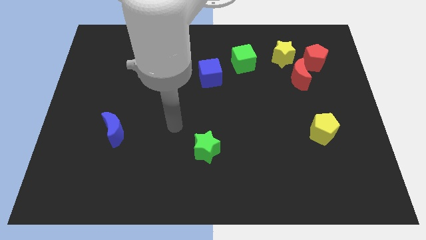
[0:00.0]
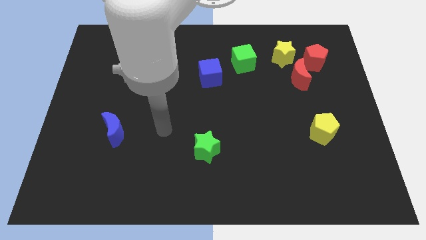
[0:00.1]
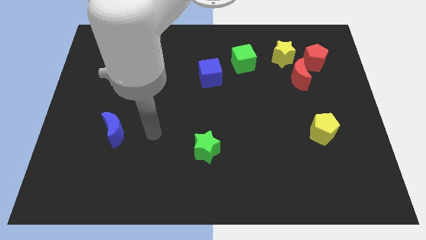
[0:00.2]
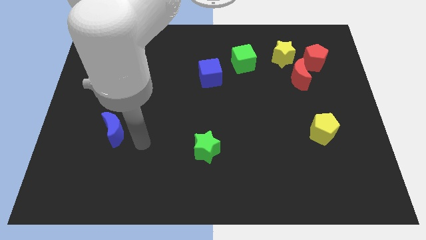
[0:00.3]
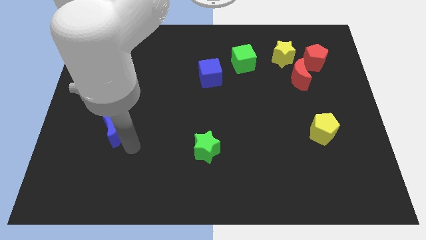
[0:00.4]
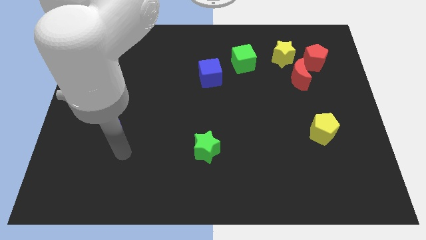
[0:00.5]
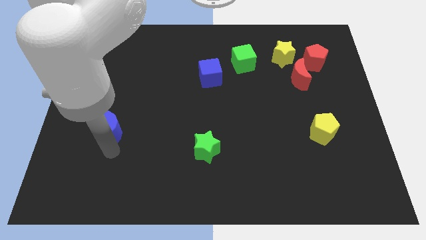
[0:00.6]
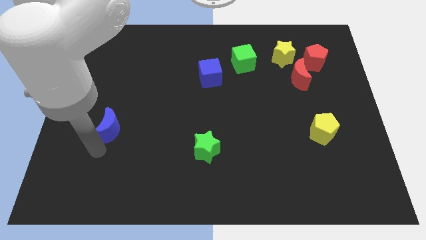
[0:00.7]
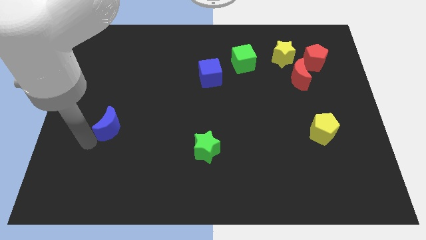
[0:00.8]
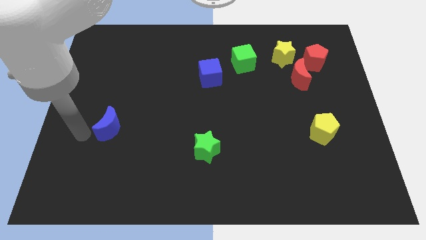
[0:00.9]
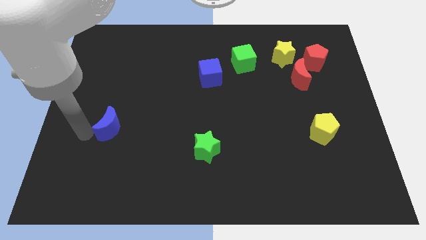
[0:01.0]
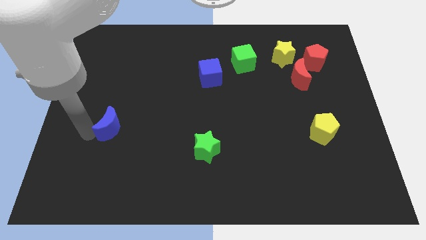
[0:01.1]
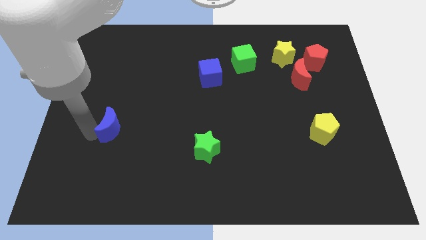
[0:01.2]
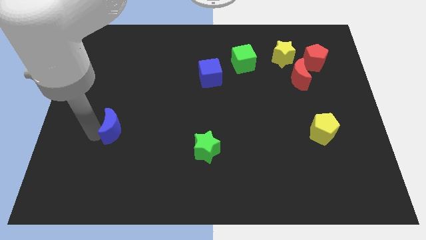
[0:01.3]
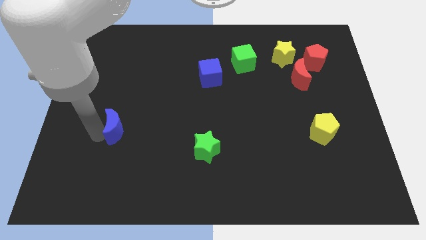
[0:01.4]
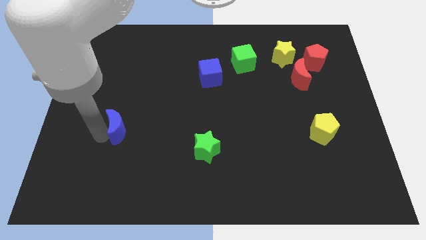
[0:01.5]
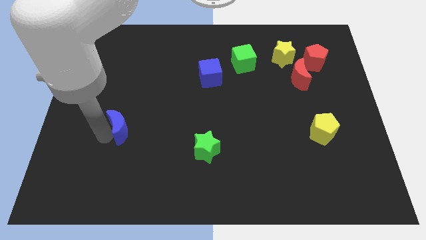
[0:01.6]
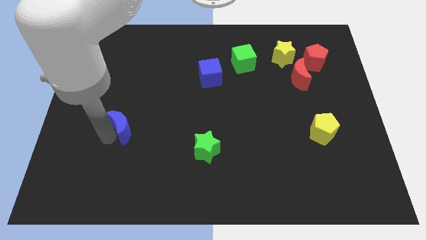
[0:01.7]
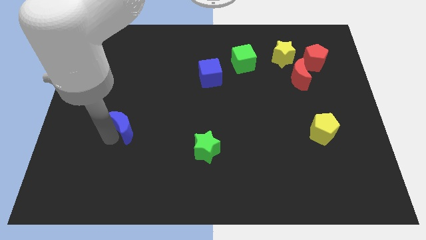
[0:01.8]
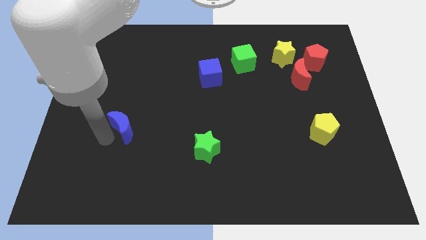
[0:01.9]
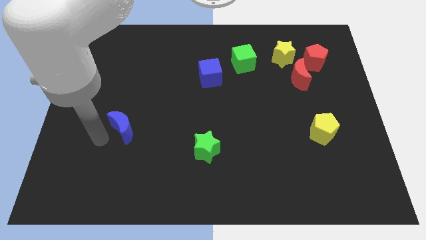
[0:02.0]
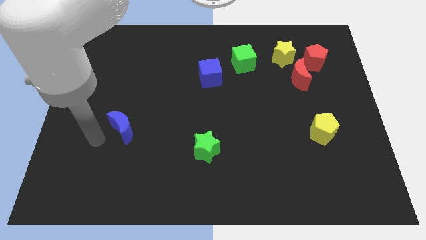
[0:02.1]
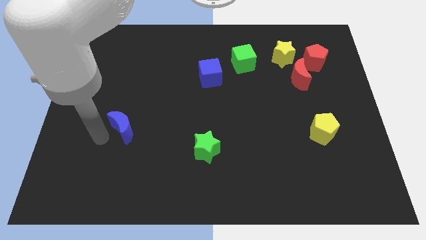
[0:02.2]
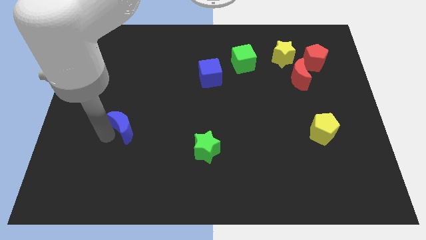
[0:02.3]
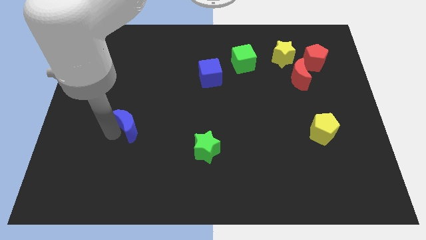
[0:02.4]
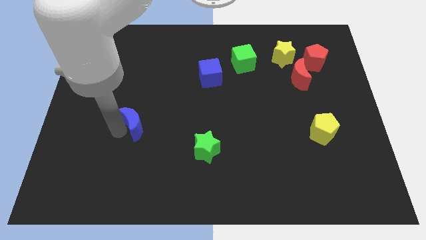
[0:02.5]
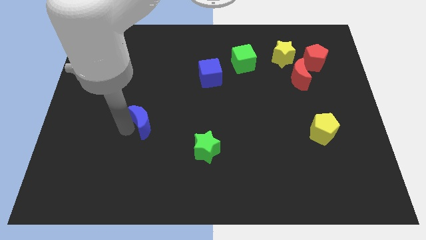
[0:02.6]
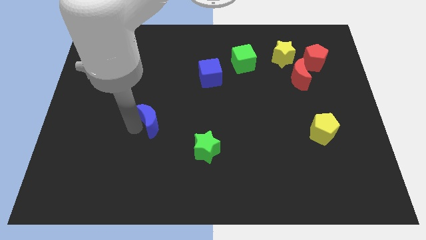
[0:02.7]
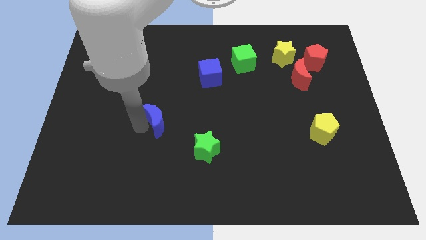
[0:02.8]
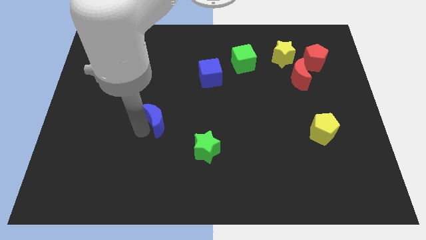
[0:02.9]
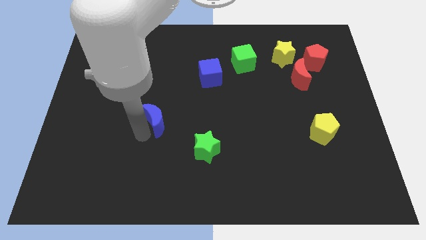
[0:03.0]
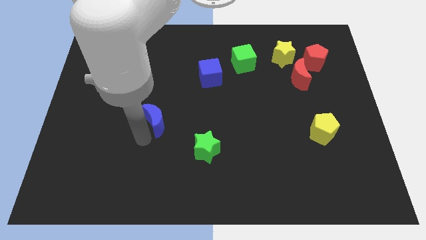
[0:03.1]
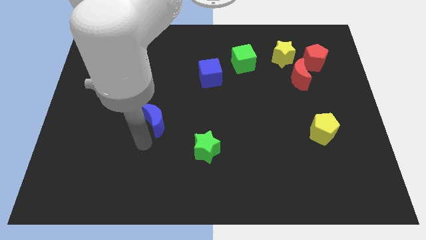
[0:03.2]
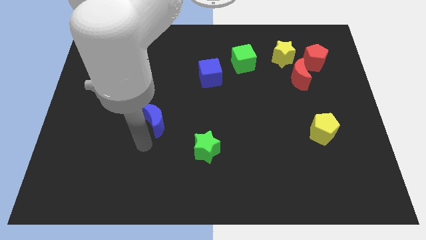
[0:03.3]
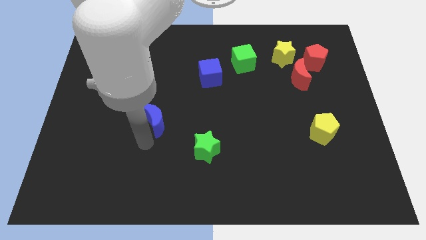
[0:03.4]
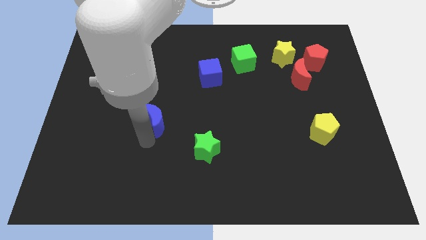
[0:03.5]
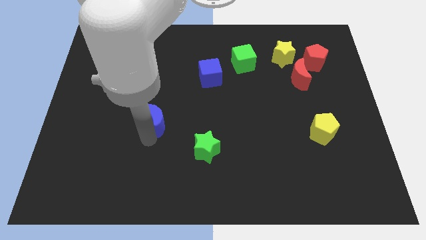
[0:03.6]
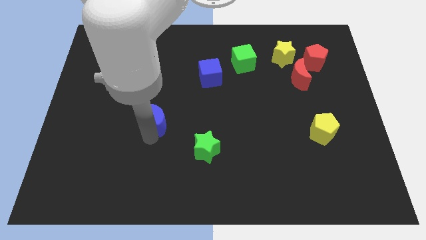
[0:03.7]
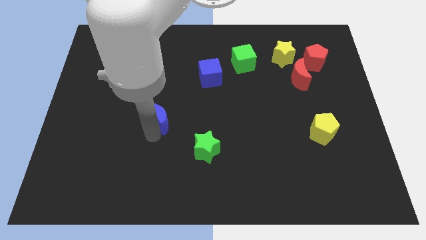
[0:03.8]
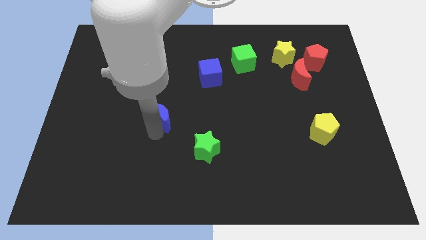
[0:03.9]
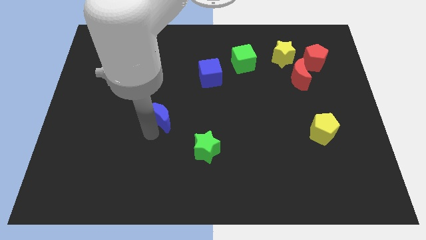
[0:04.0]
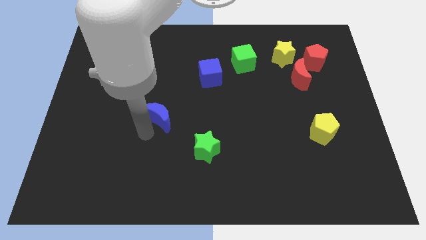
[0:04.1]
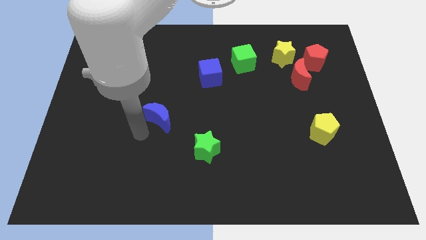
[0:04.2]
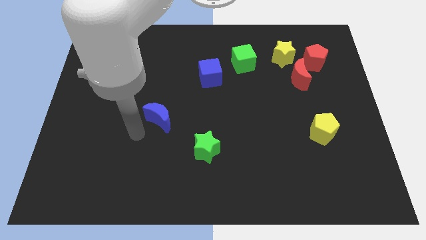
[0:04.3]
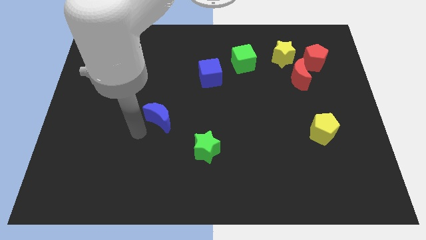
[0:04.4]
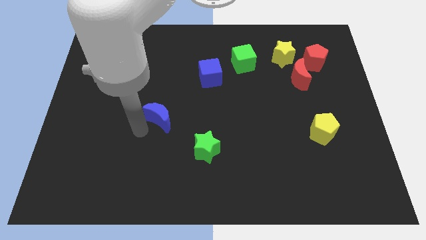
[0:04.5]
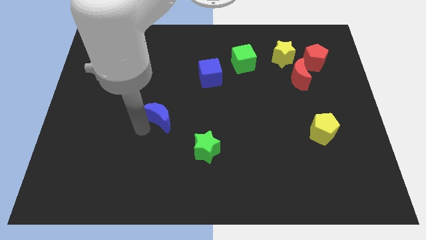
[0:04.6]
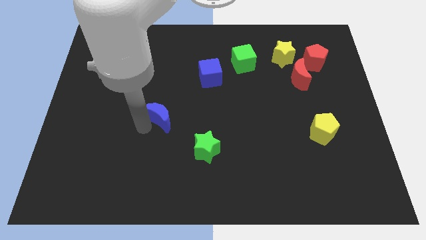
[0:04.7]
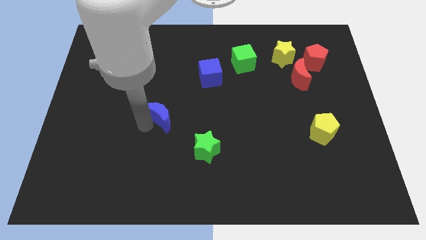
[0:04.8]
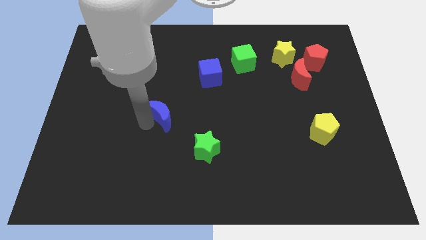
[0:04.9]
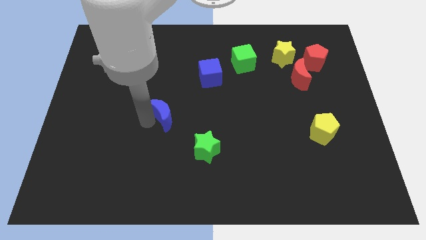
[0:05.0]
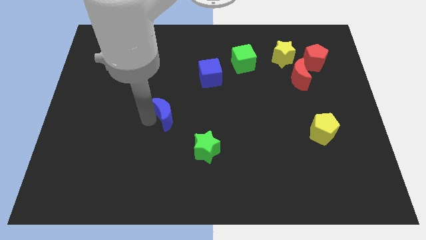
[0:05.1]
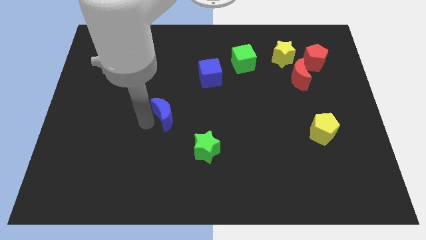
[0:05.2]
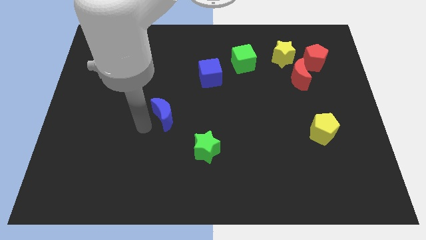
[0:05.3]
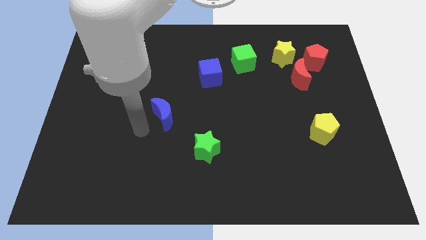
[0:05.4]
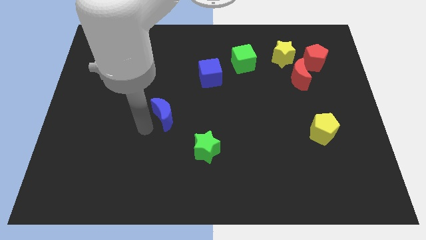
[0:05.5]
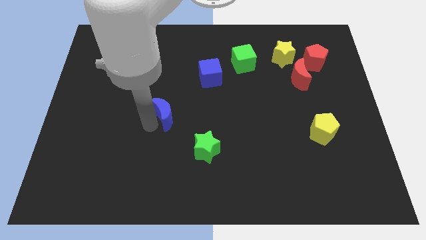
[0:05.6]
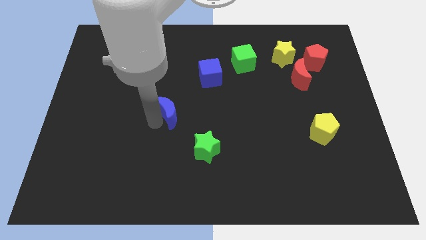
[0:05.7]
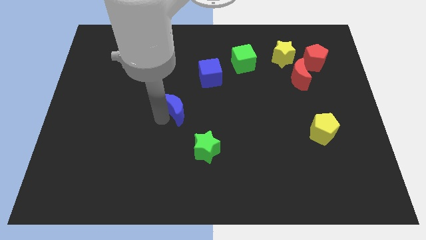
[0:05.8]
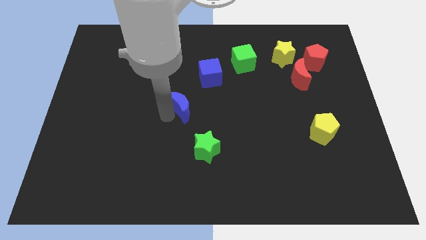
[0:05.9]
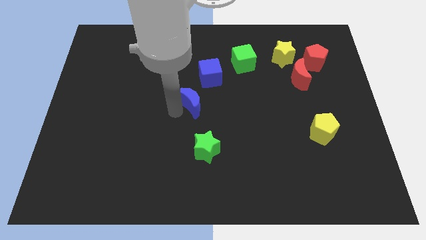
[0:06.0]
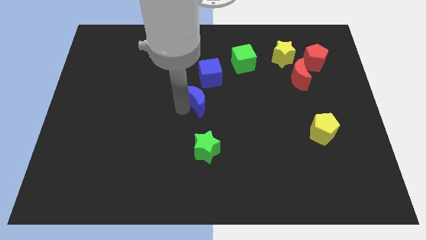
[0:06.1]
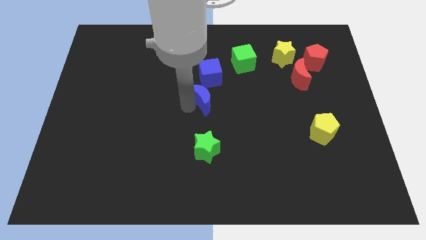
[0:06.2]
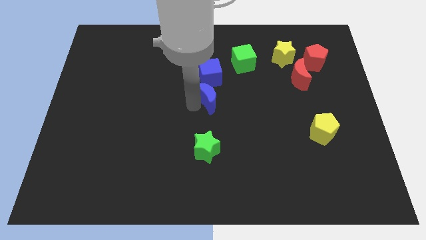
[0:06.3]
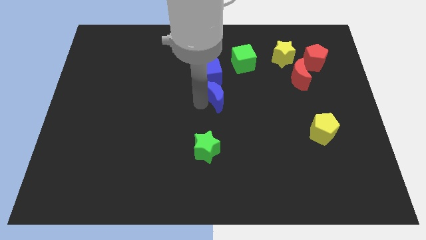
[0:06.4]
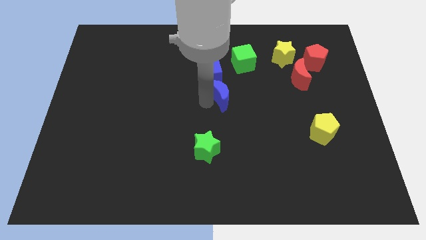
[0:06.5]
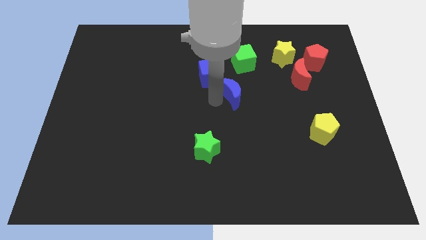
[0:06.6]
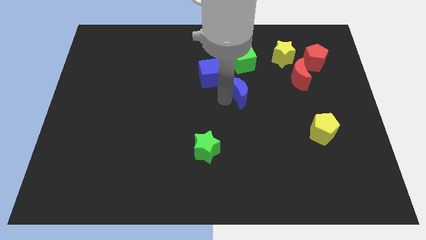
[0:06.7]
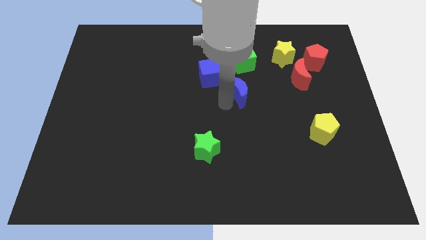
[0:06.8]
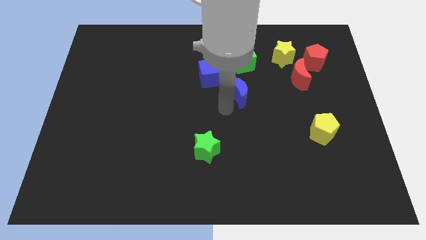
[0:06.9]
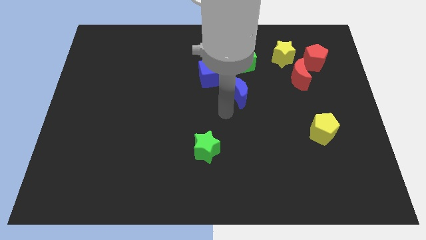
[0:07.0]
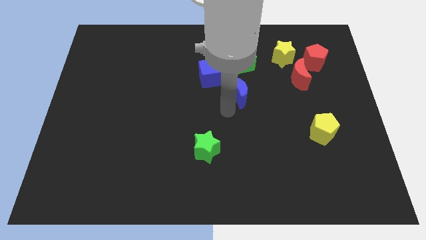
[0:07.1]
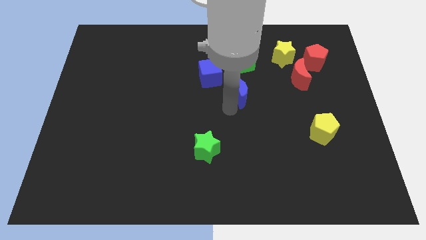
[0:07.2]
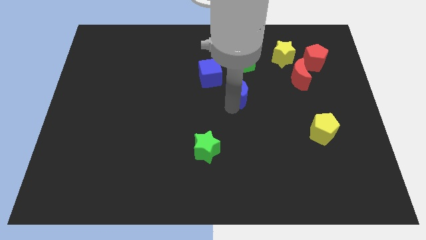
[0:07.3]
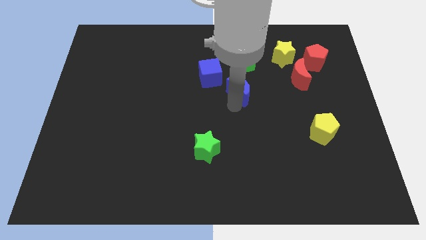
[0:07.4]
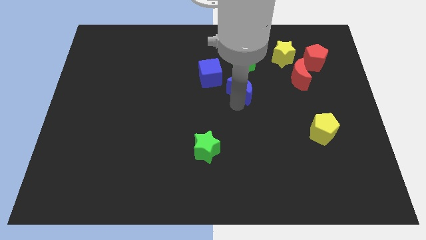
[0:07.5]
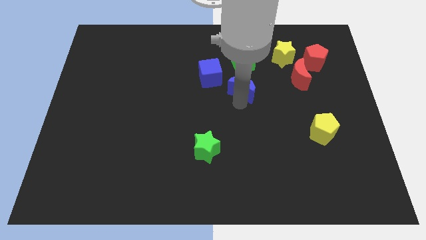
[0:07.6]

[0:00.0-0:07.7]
move the blue moon right of the blue cube

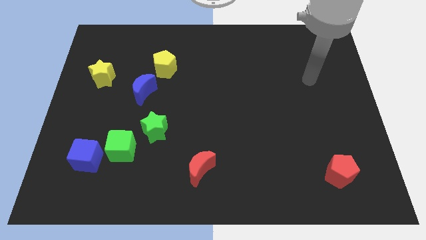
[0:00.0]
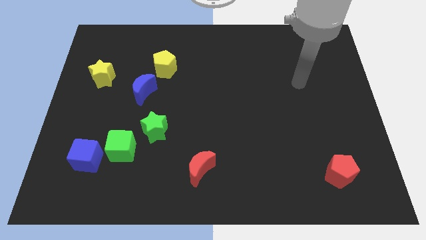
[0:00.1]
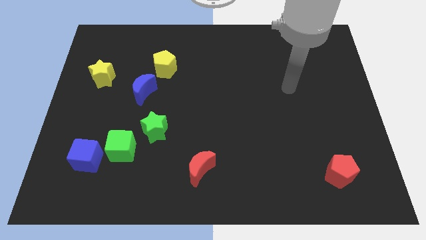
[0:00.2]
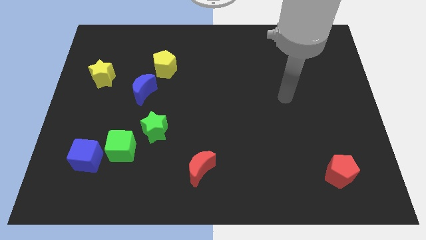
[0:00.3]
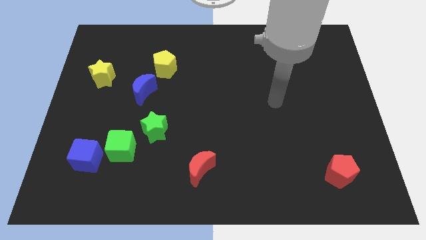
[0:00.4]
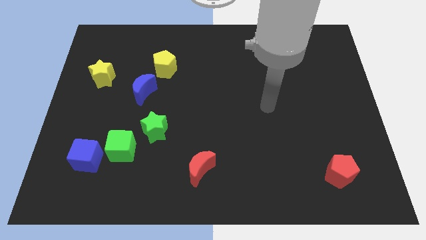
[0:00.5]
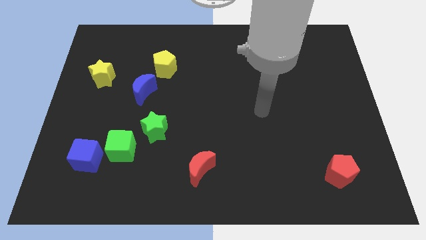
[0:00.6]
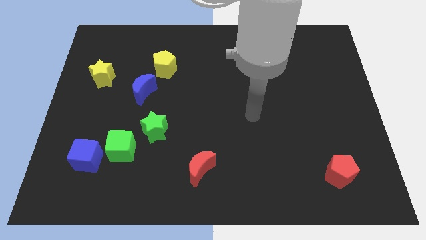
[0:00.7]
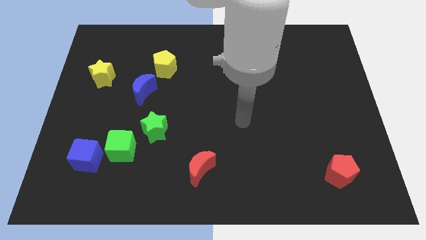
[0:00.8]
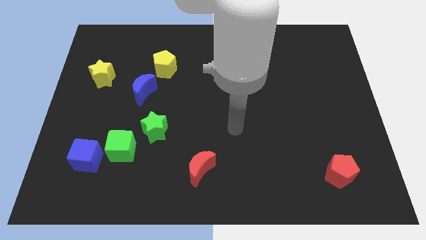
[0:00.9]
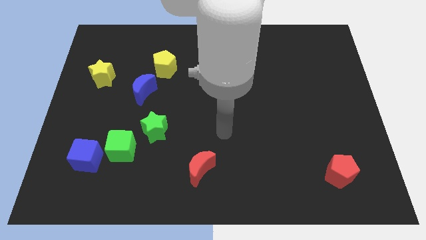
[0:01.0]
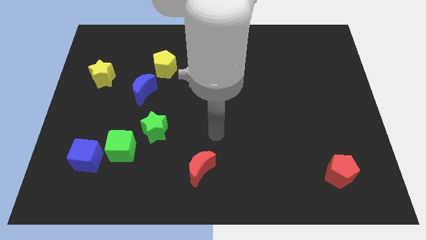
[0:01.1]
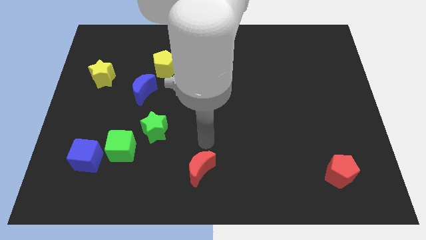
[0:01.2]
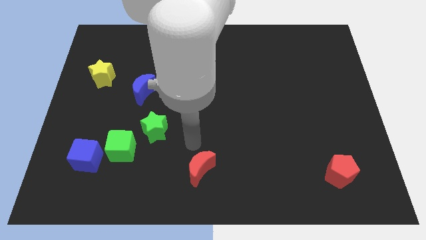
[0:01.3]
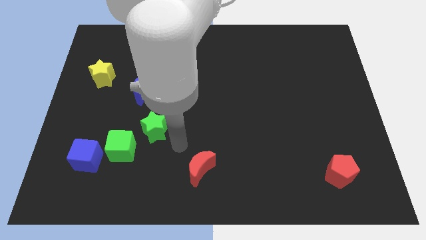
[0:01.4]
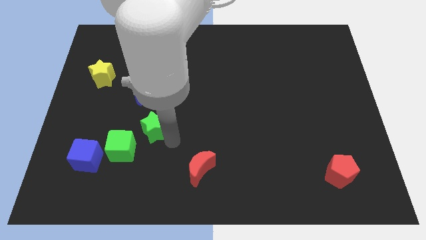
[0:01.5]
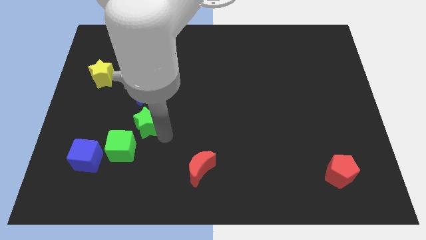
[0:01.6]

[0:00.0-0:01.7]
move the green star to the top of the green cube
